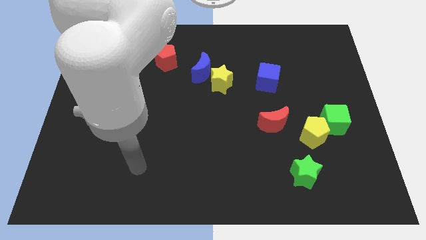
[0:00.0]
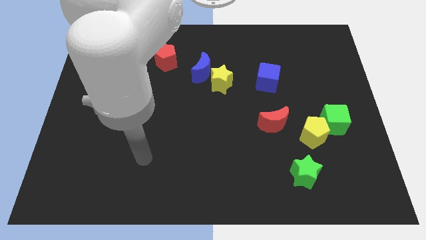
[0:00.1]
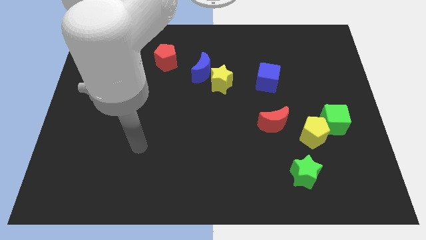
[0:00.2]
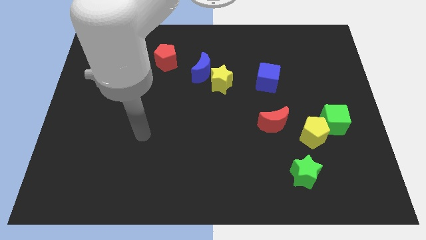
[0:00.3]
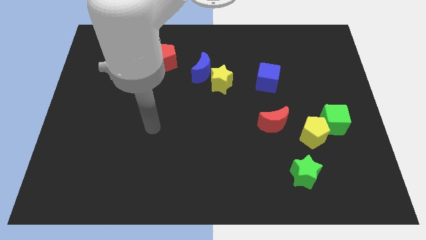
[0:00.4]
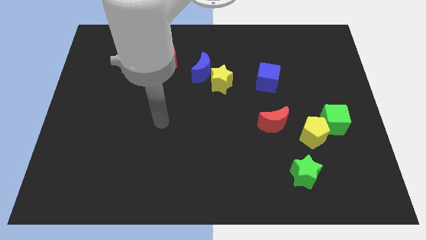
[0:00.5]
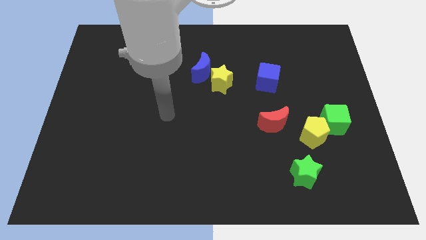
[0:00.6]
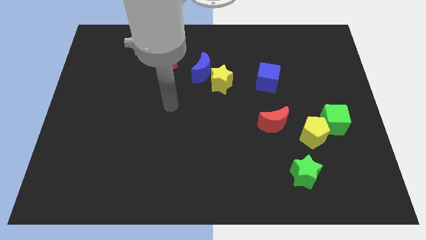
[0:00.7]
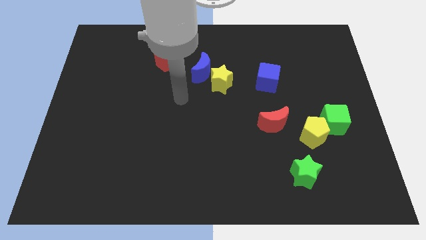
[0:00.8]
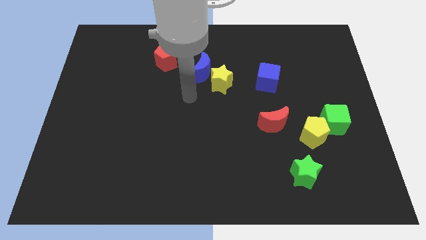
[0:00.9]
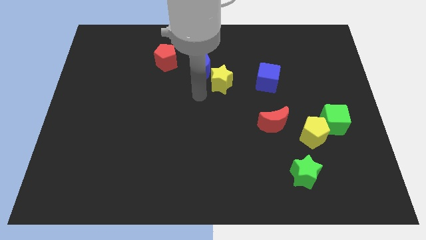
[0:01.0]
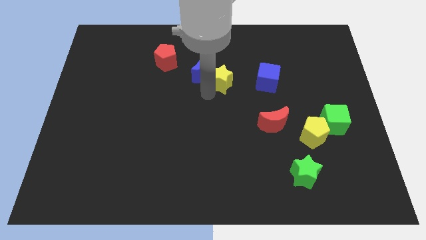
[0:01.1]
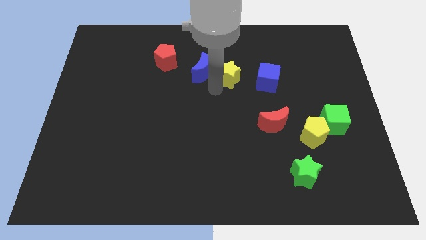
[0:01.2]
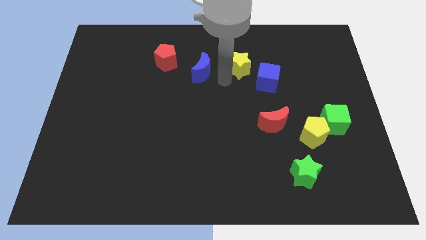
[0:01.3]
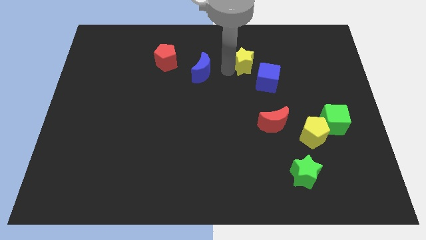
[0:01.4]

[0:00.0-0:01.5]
pull the blue moon apart from the yellow star

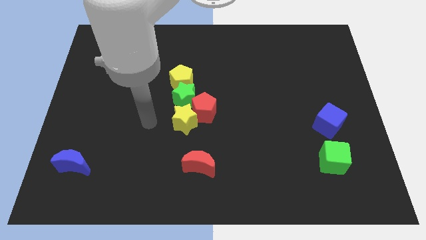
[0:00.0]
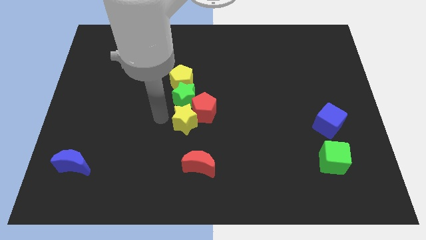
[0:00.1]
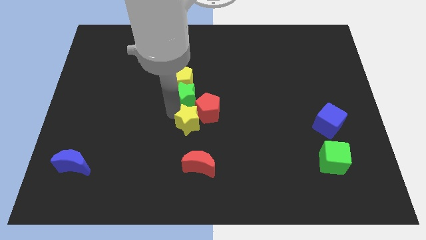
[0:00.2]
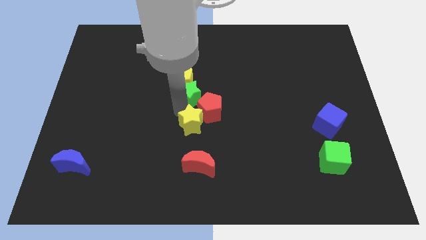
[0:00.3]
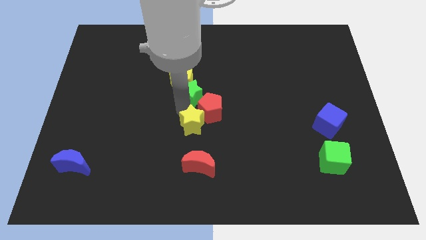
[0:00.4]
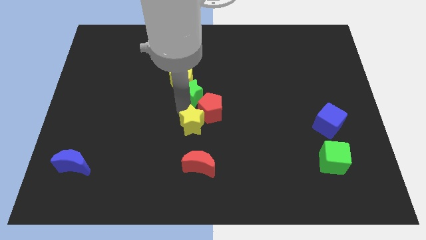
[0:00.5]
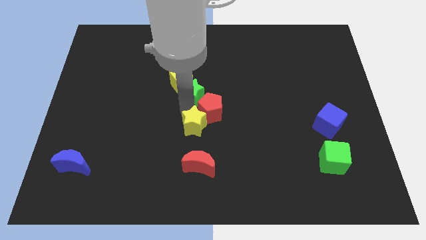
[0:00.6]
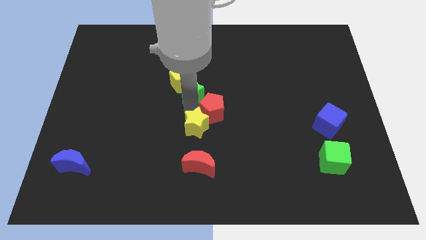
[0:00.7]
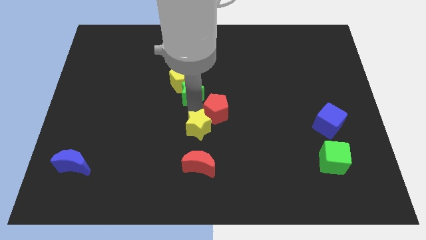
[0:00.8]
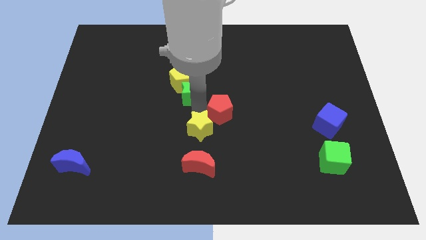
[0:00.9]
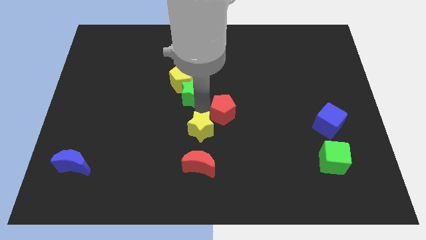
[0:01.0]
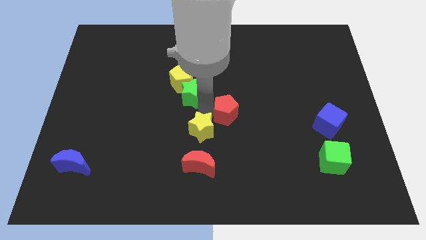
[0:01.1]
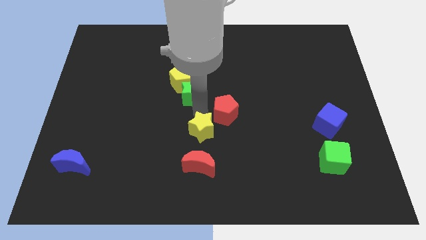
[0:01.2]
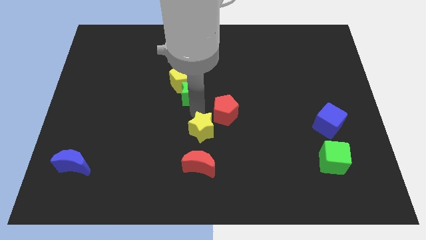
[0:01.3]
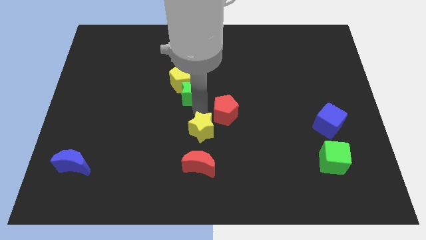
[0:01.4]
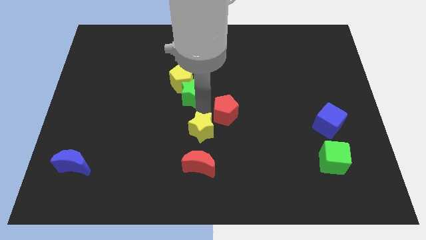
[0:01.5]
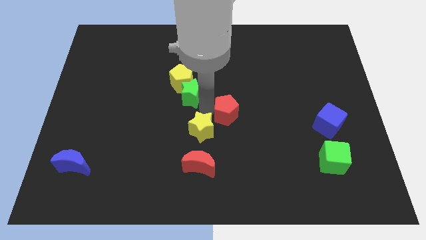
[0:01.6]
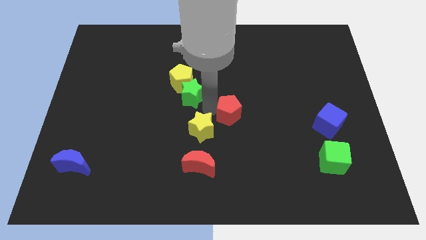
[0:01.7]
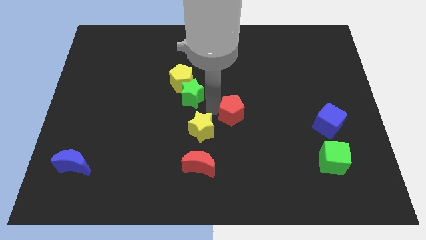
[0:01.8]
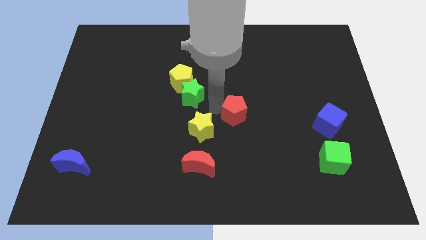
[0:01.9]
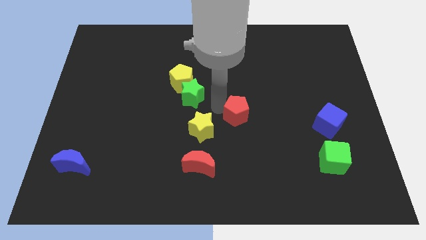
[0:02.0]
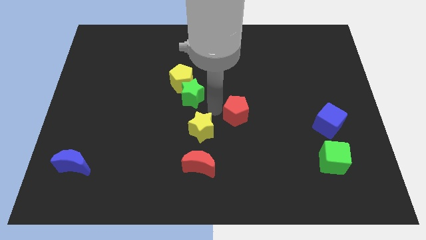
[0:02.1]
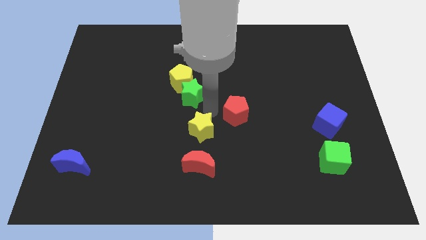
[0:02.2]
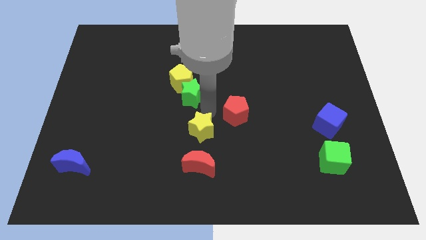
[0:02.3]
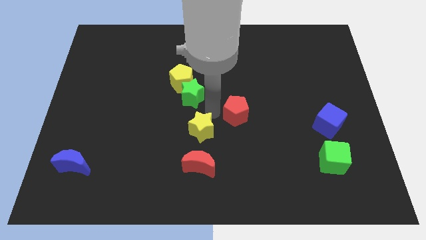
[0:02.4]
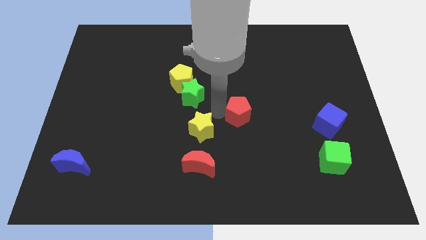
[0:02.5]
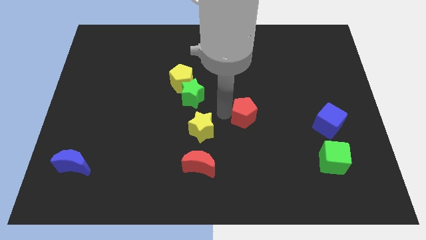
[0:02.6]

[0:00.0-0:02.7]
separate the red pentagon from the green star and yellow star

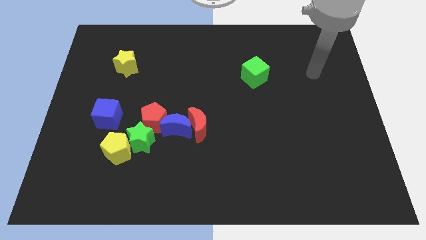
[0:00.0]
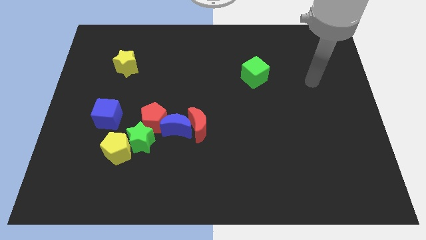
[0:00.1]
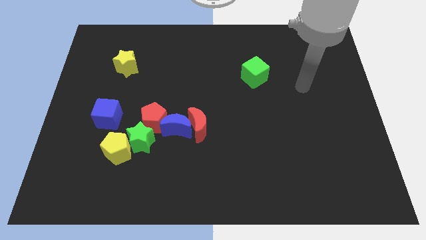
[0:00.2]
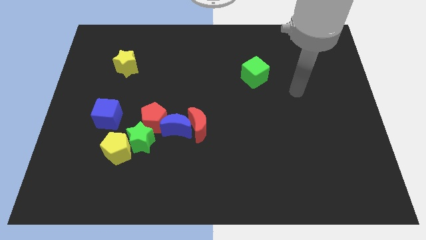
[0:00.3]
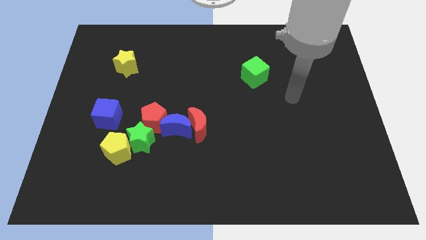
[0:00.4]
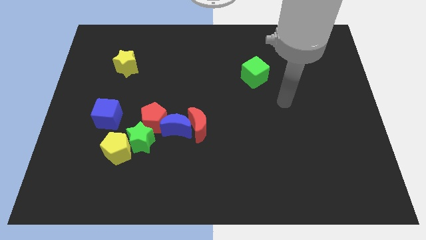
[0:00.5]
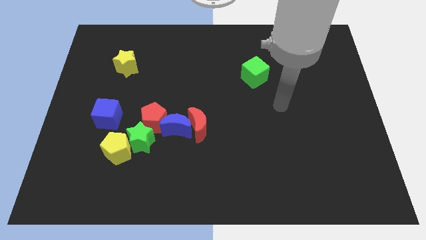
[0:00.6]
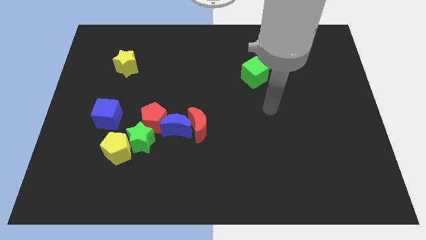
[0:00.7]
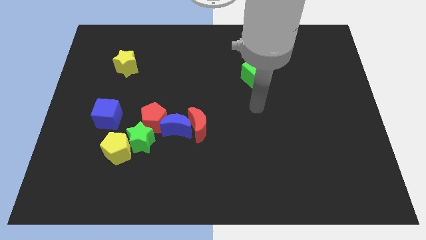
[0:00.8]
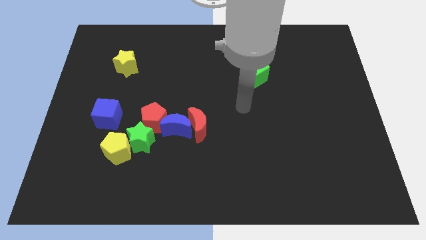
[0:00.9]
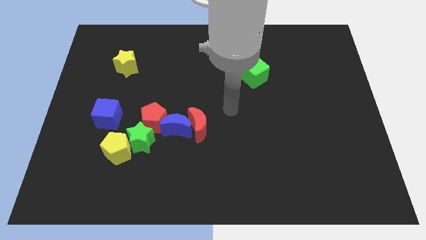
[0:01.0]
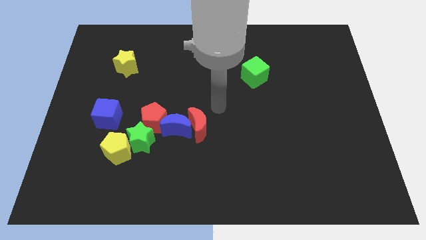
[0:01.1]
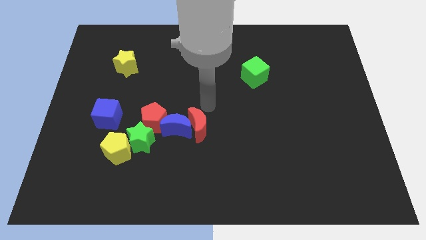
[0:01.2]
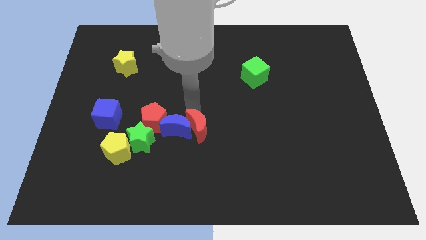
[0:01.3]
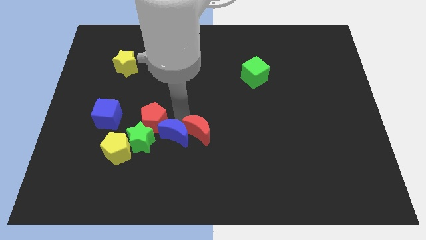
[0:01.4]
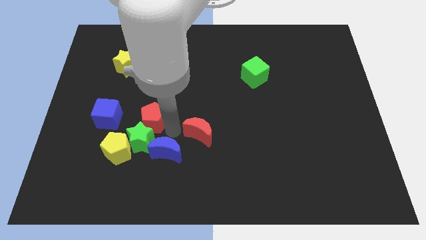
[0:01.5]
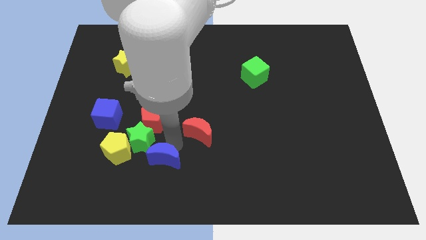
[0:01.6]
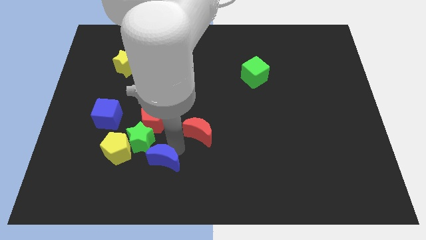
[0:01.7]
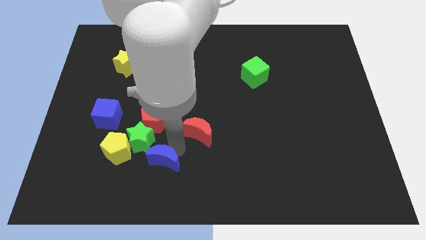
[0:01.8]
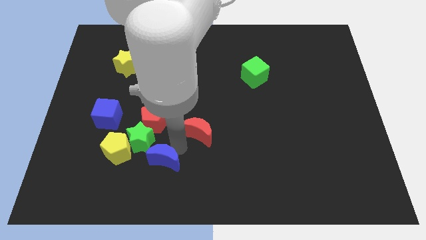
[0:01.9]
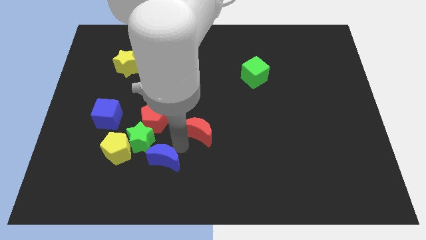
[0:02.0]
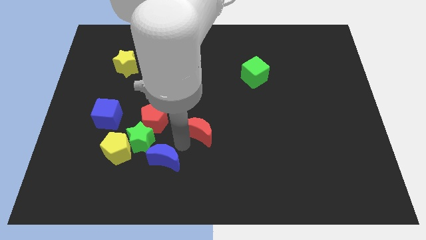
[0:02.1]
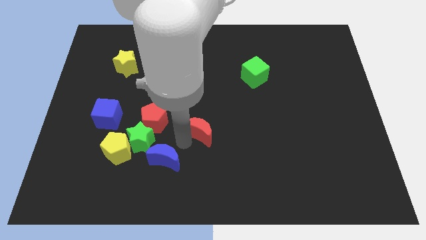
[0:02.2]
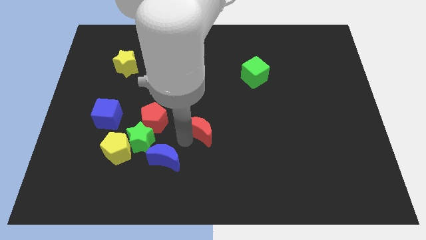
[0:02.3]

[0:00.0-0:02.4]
move the red moon away from the blue moon

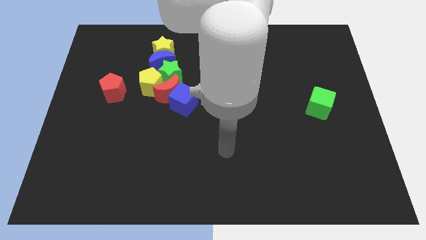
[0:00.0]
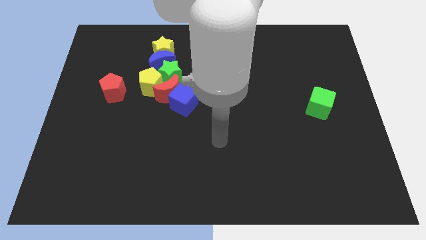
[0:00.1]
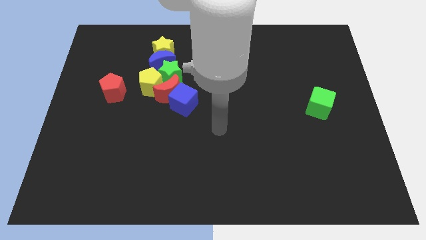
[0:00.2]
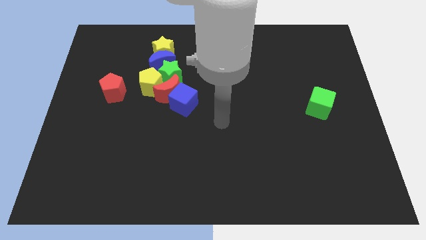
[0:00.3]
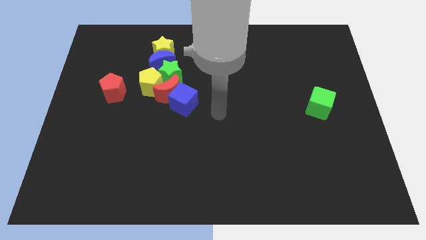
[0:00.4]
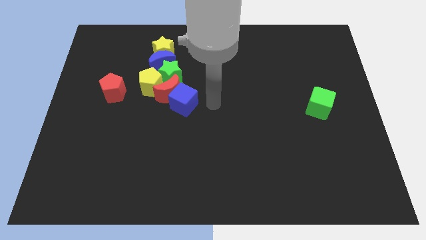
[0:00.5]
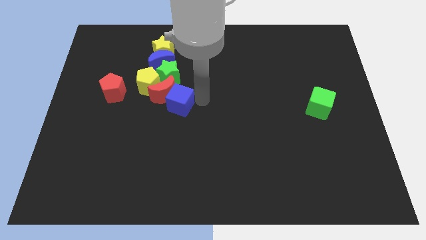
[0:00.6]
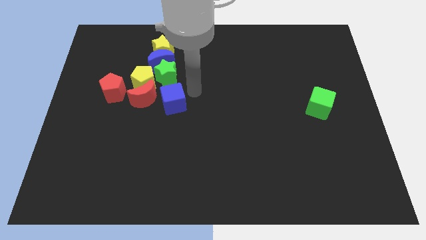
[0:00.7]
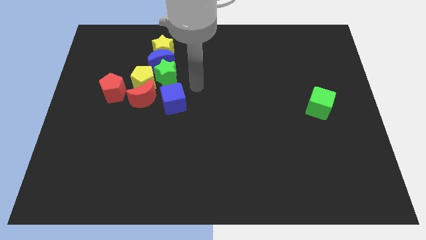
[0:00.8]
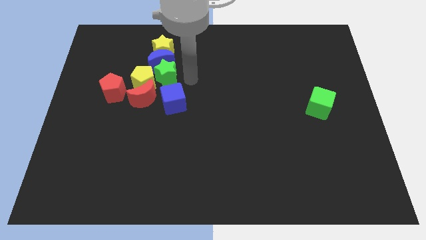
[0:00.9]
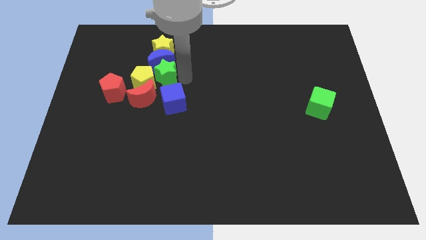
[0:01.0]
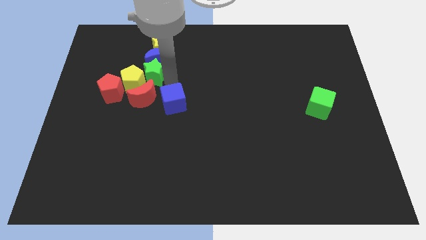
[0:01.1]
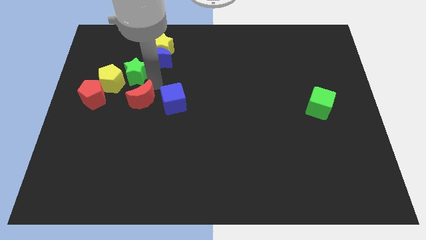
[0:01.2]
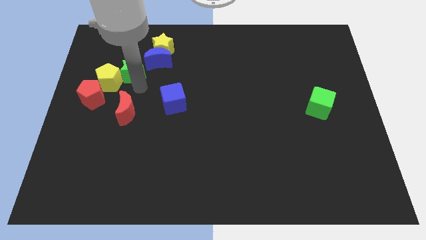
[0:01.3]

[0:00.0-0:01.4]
separate the red moon from the group

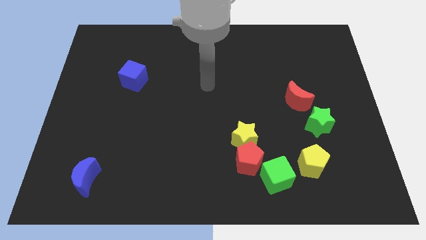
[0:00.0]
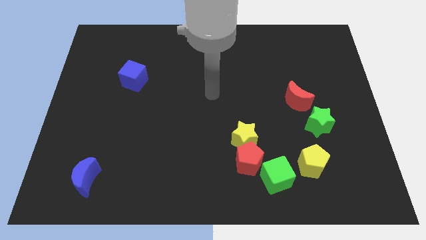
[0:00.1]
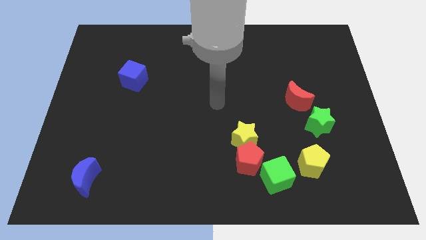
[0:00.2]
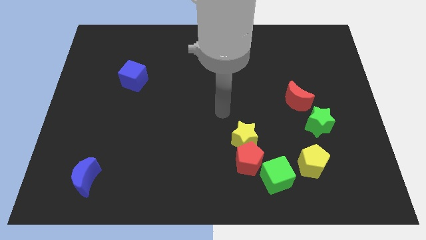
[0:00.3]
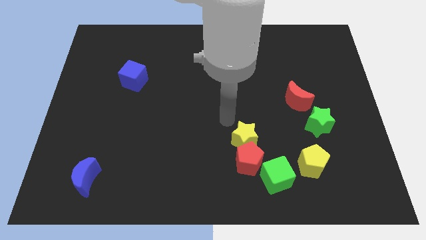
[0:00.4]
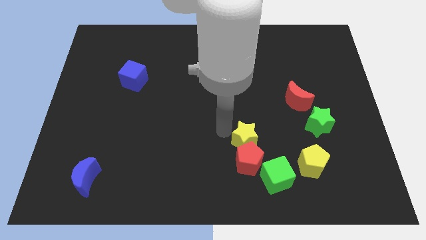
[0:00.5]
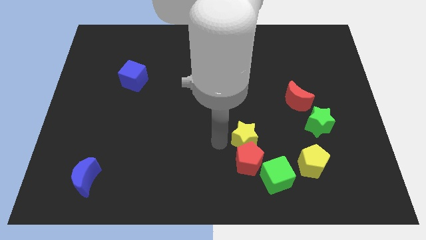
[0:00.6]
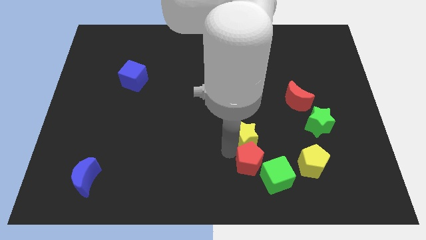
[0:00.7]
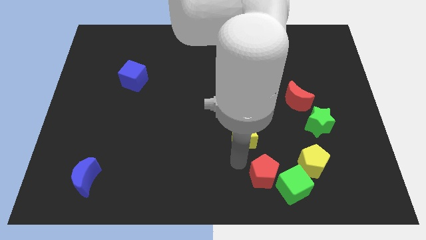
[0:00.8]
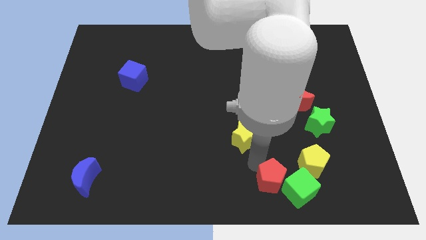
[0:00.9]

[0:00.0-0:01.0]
separate the yellow star from the red pentagon

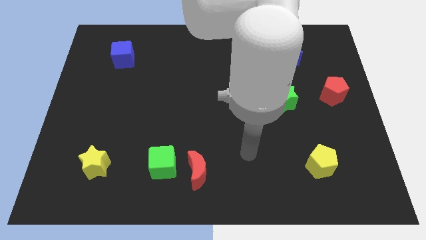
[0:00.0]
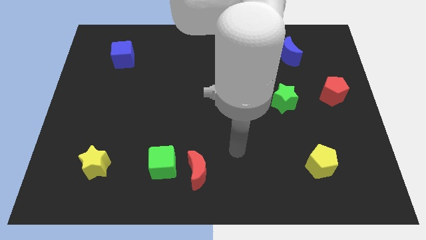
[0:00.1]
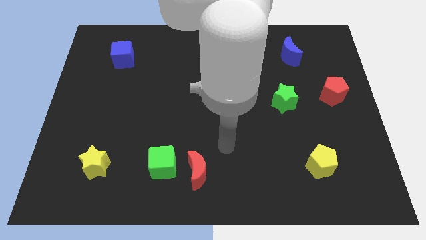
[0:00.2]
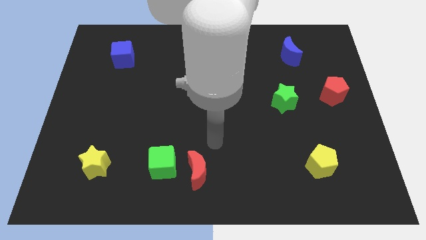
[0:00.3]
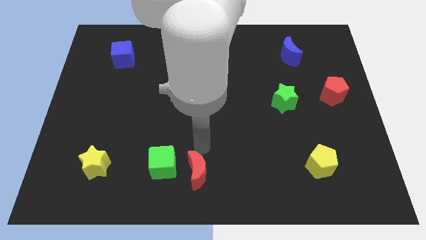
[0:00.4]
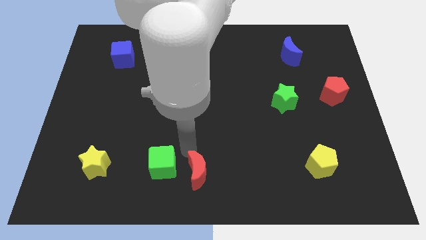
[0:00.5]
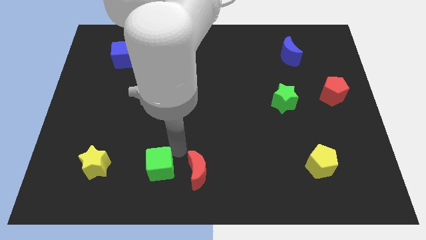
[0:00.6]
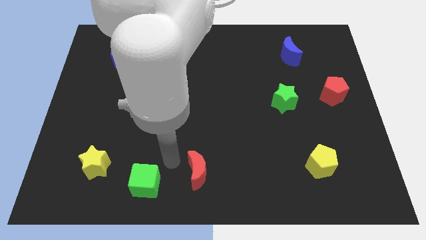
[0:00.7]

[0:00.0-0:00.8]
separate the red moon from the green cube
